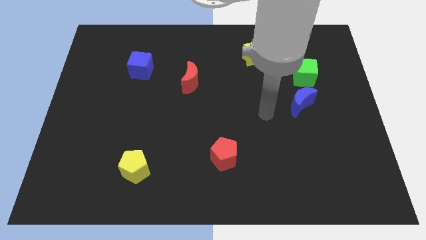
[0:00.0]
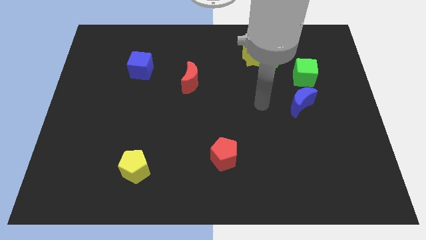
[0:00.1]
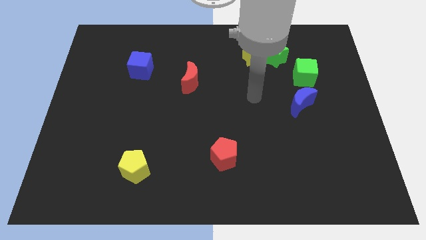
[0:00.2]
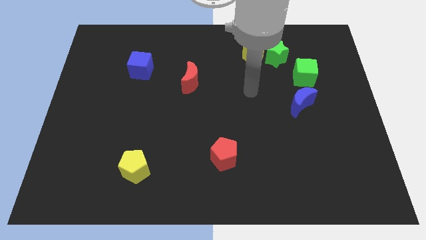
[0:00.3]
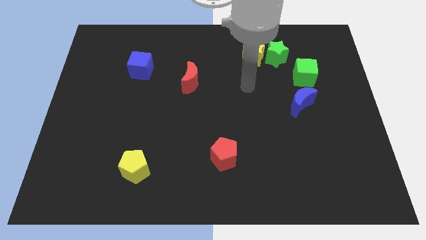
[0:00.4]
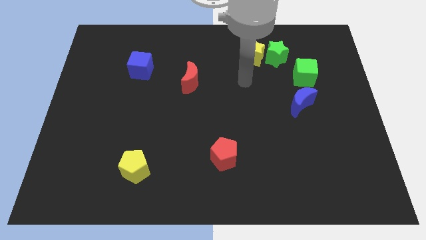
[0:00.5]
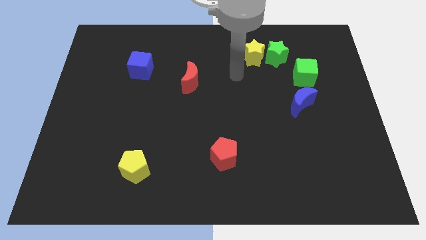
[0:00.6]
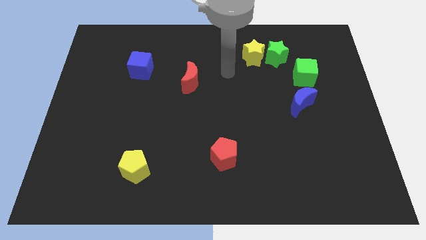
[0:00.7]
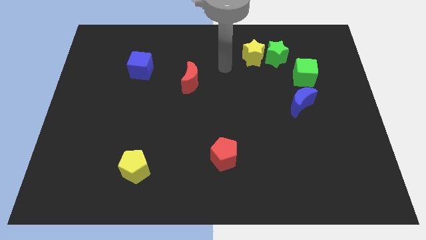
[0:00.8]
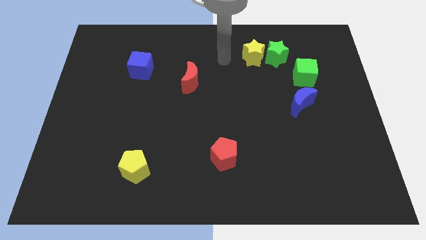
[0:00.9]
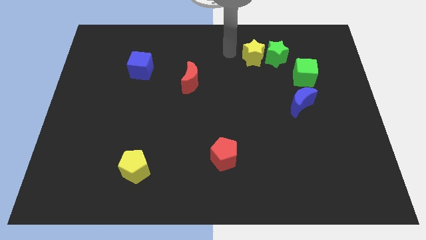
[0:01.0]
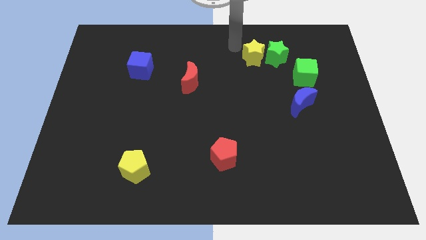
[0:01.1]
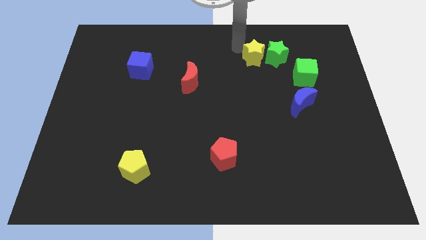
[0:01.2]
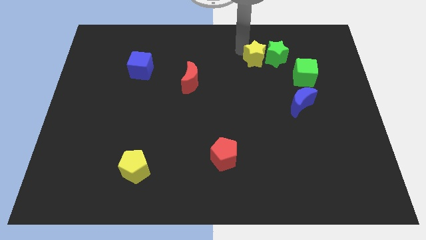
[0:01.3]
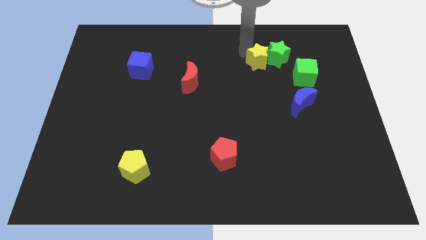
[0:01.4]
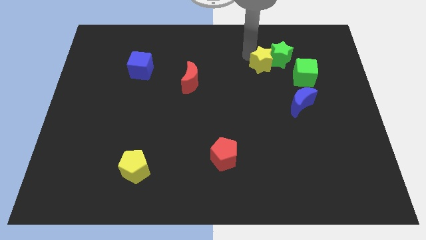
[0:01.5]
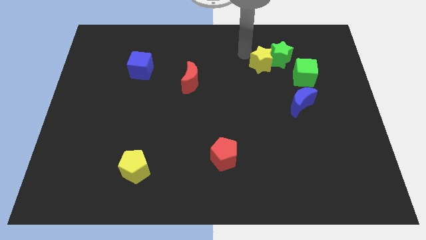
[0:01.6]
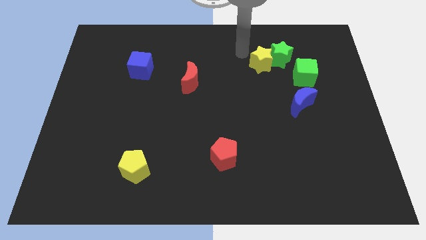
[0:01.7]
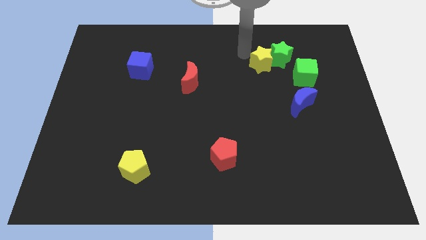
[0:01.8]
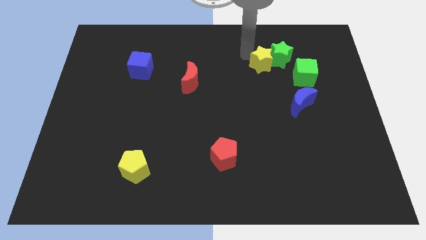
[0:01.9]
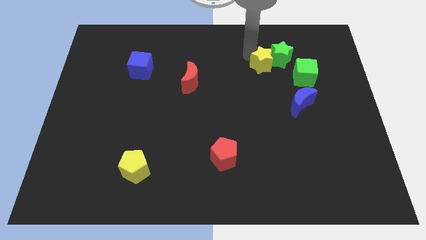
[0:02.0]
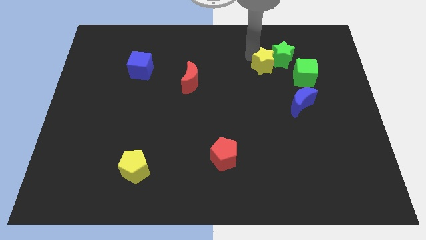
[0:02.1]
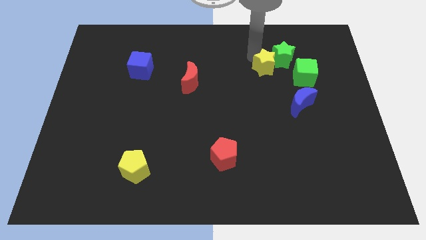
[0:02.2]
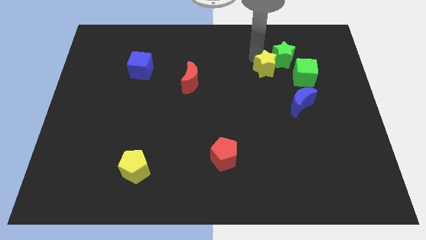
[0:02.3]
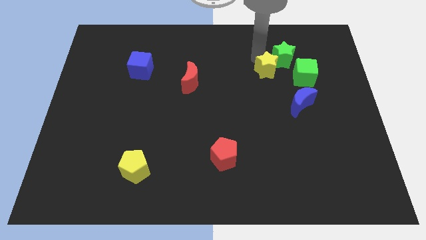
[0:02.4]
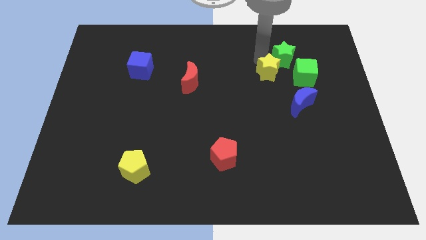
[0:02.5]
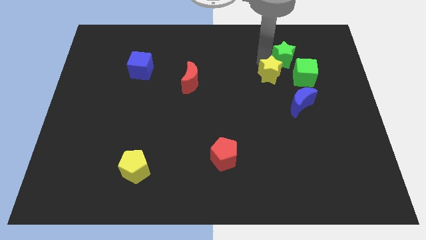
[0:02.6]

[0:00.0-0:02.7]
slightly move the yellow star diagonally downwards and right

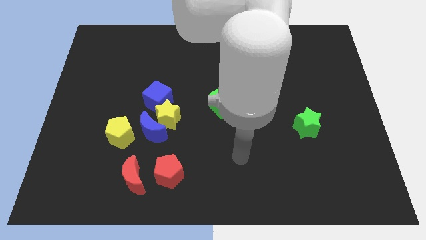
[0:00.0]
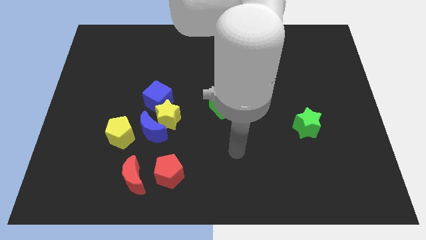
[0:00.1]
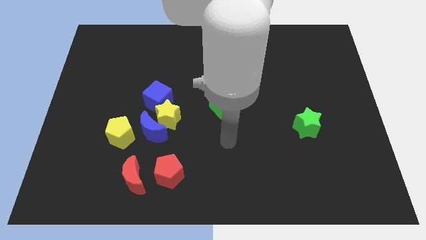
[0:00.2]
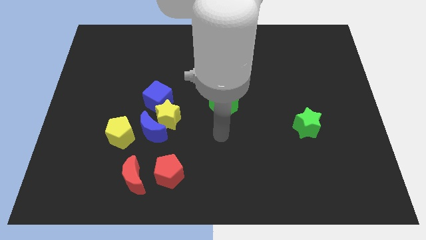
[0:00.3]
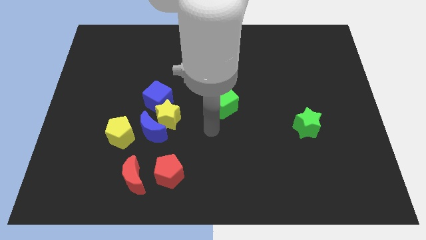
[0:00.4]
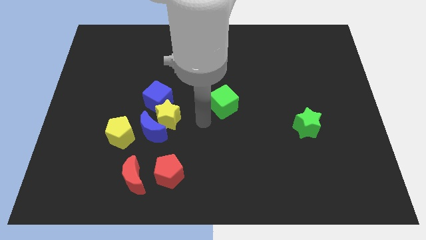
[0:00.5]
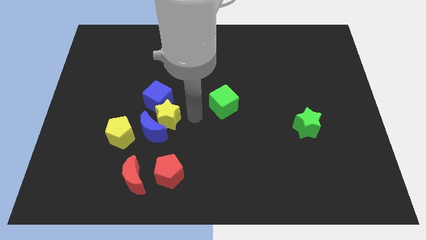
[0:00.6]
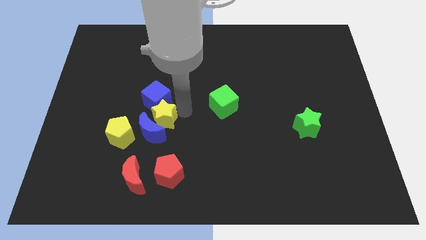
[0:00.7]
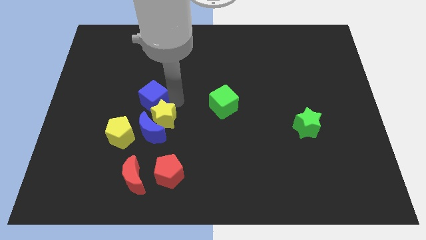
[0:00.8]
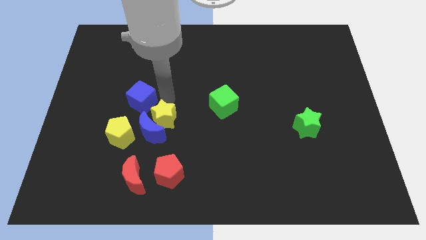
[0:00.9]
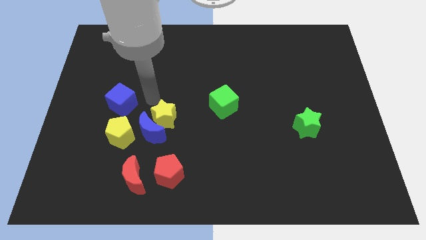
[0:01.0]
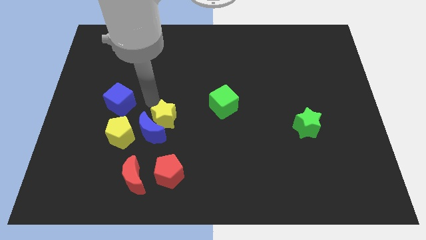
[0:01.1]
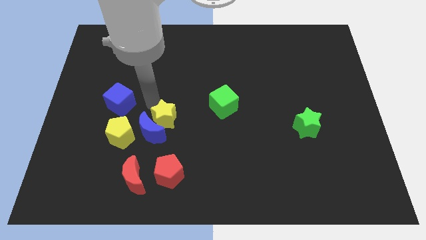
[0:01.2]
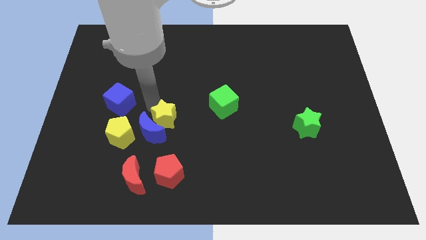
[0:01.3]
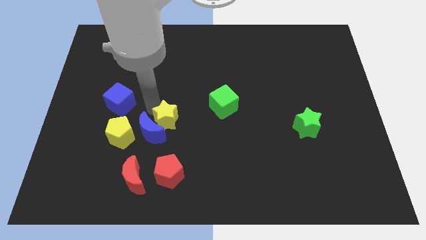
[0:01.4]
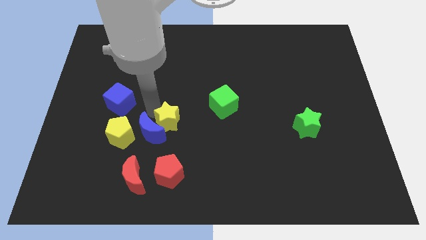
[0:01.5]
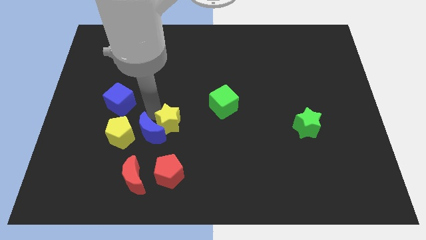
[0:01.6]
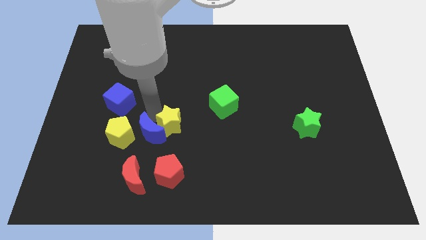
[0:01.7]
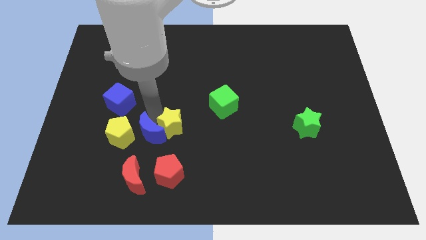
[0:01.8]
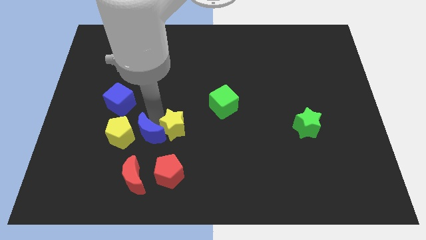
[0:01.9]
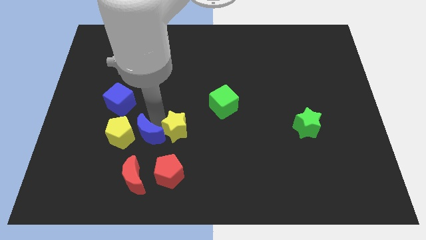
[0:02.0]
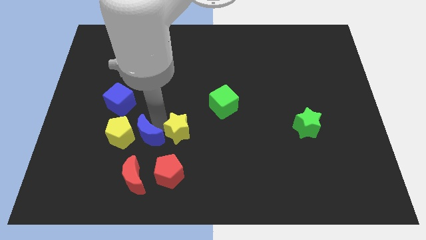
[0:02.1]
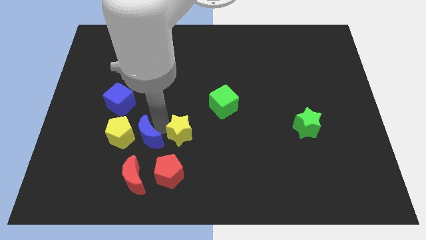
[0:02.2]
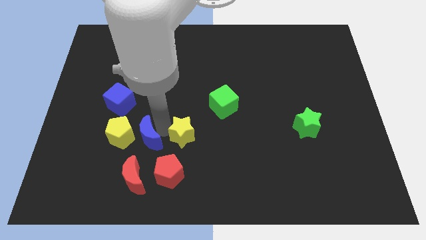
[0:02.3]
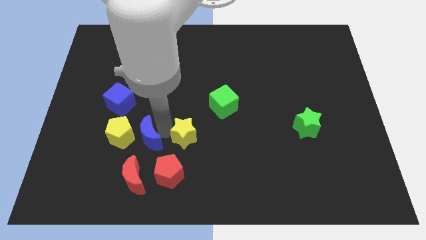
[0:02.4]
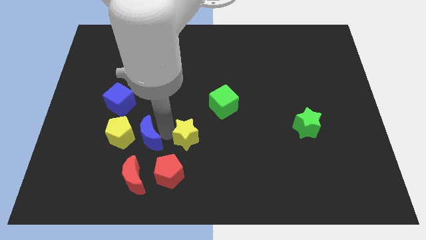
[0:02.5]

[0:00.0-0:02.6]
move the yellow star diagonally downwards and to the right a little

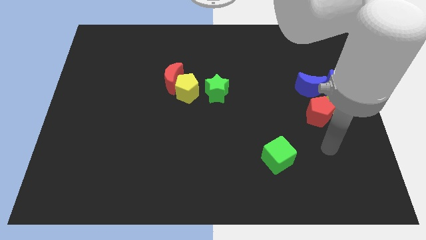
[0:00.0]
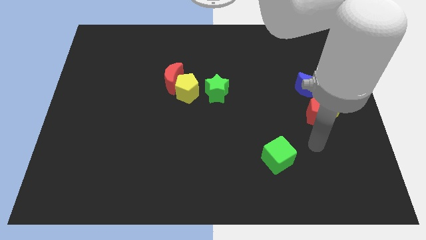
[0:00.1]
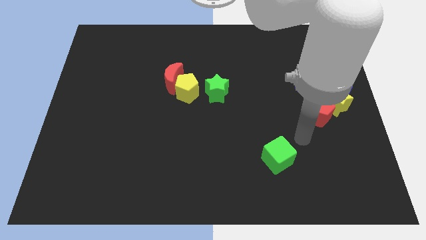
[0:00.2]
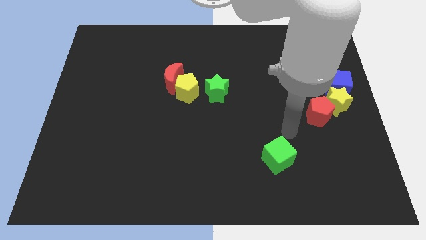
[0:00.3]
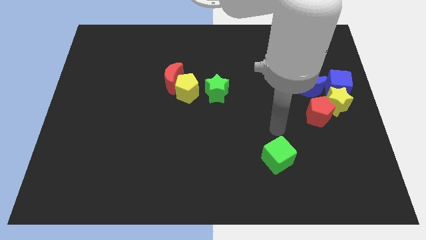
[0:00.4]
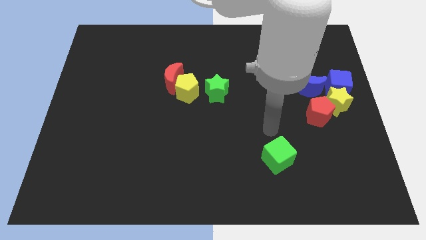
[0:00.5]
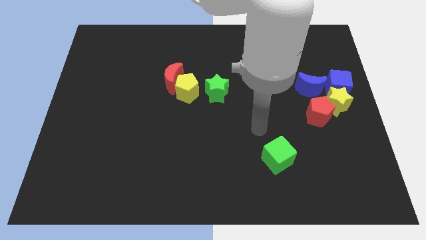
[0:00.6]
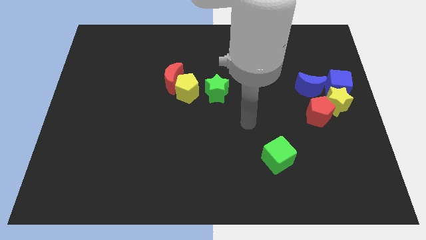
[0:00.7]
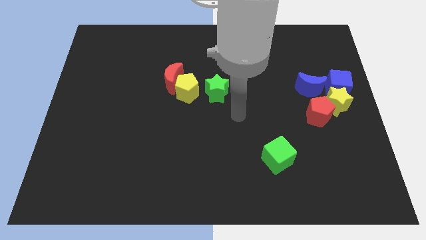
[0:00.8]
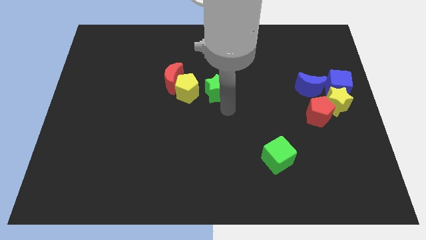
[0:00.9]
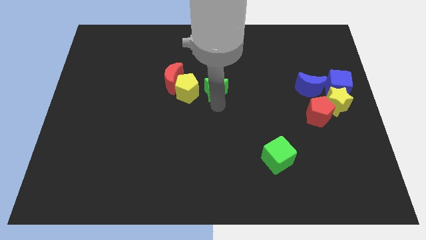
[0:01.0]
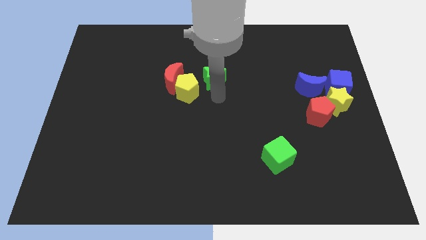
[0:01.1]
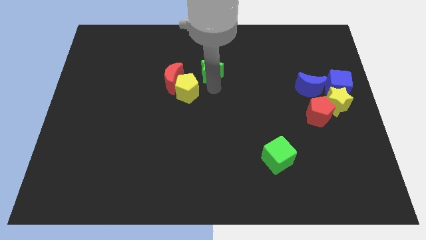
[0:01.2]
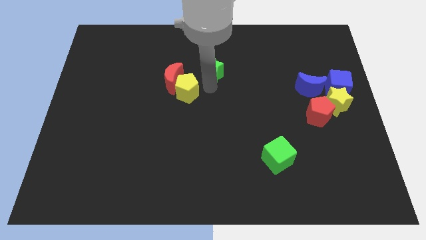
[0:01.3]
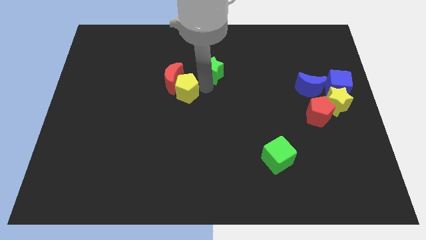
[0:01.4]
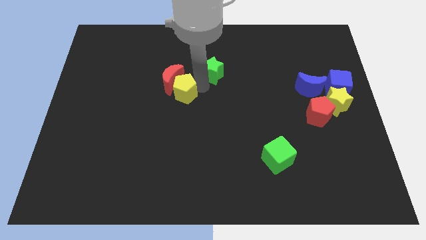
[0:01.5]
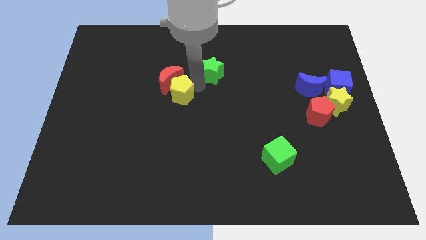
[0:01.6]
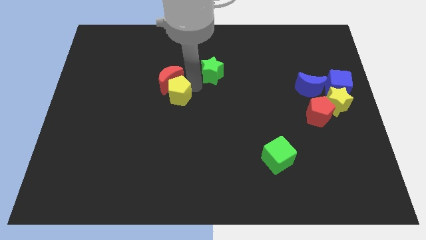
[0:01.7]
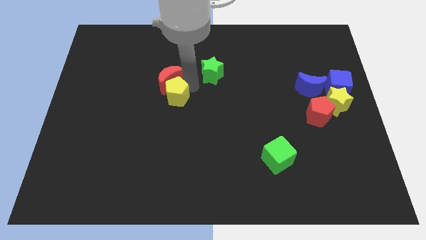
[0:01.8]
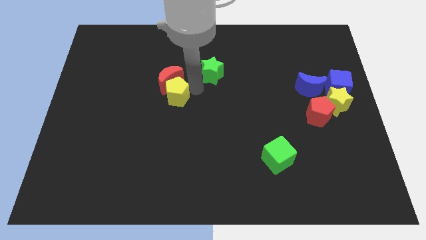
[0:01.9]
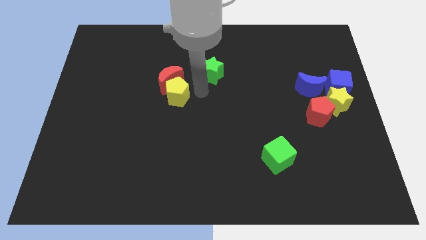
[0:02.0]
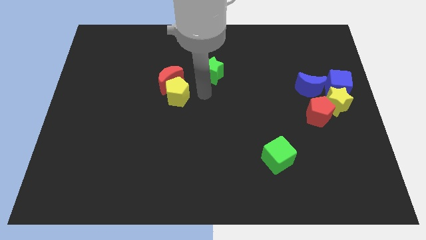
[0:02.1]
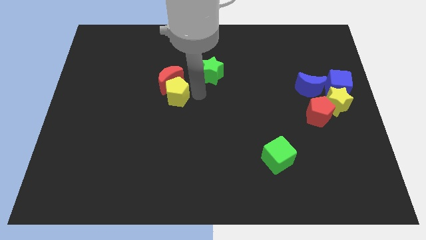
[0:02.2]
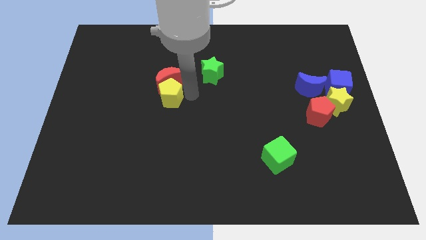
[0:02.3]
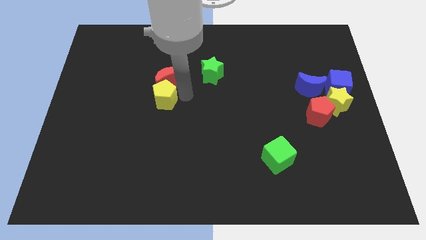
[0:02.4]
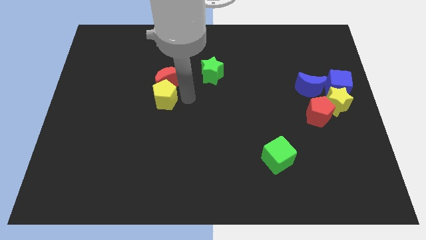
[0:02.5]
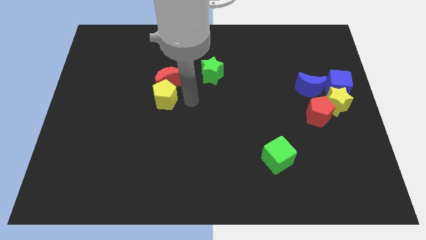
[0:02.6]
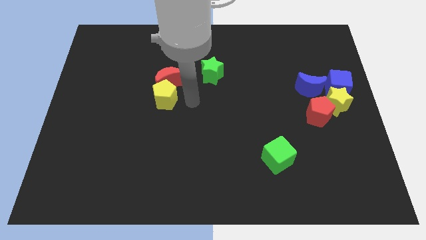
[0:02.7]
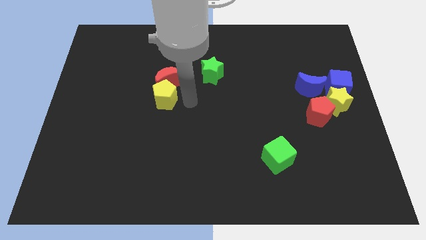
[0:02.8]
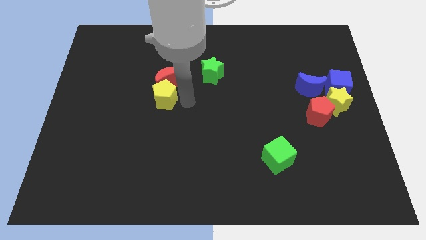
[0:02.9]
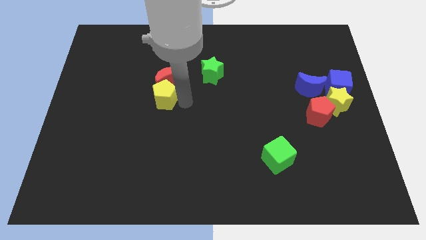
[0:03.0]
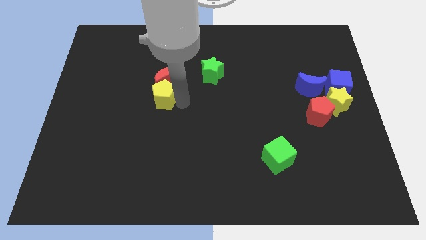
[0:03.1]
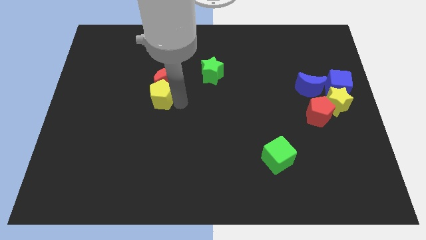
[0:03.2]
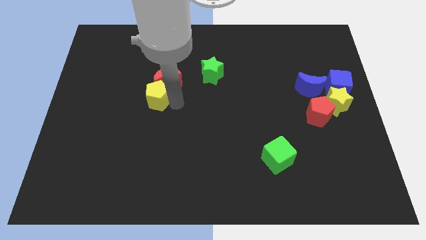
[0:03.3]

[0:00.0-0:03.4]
slightly move the yellow pentagon left
